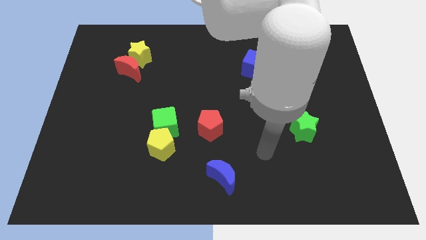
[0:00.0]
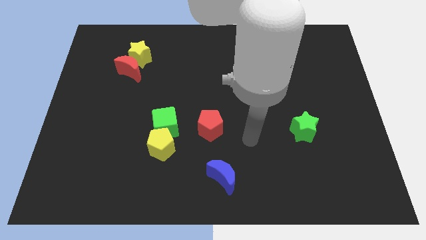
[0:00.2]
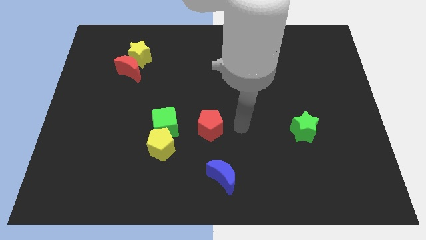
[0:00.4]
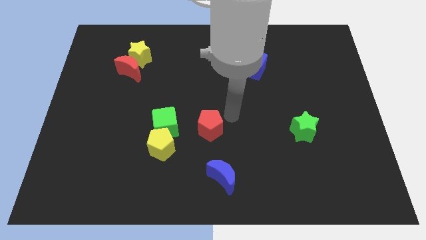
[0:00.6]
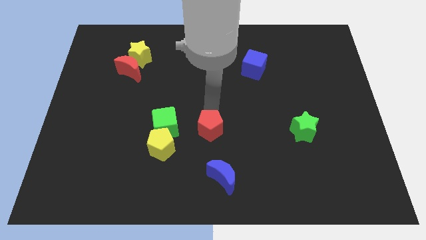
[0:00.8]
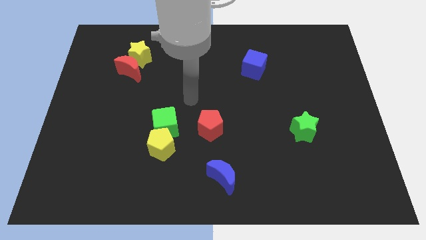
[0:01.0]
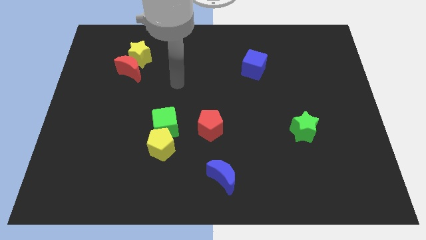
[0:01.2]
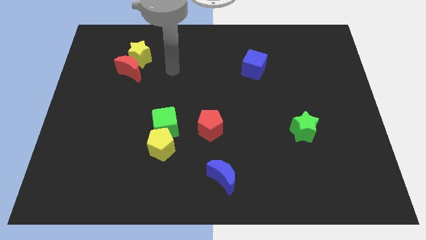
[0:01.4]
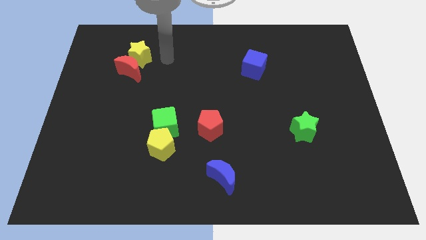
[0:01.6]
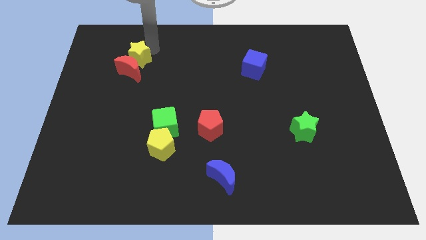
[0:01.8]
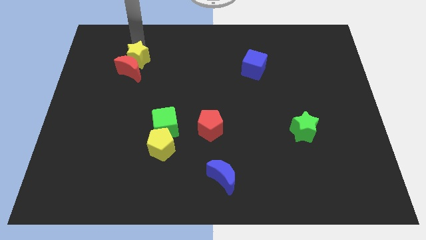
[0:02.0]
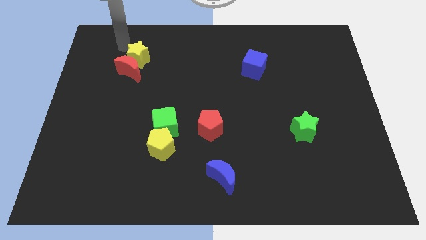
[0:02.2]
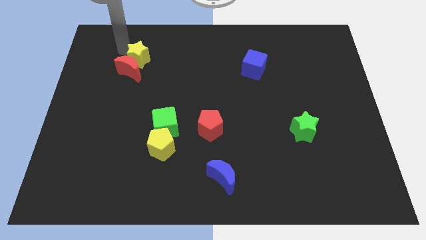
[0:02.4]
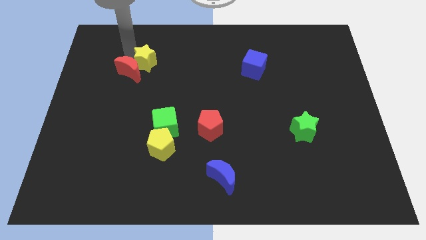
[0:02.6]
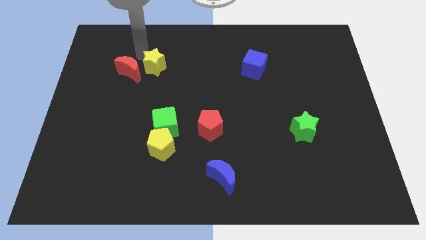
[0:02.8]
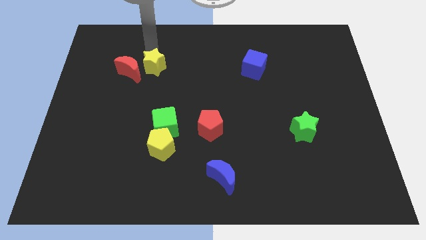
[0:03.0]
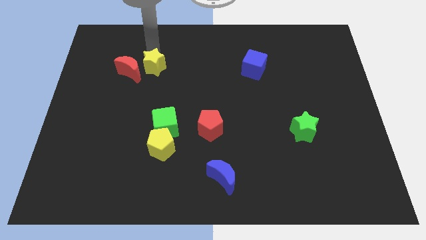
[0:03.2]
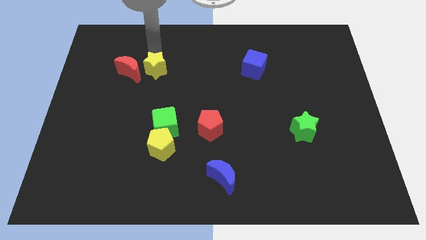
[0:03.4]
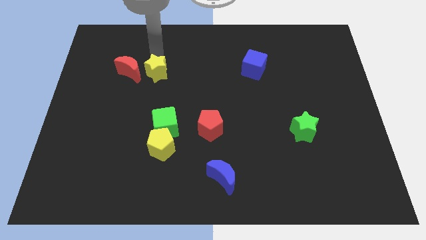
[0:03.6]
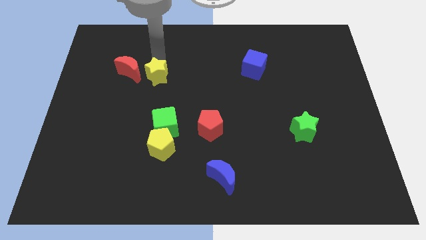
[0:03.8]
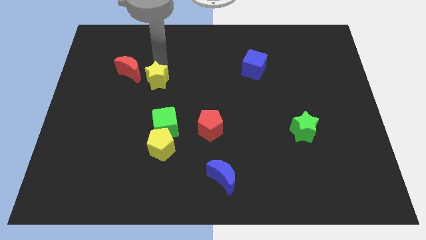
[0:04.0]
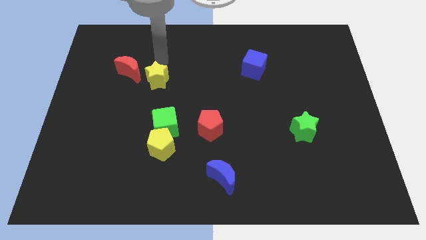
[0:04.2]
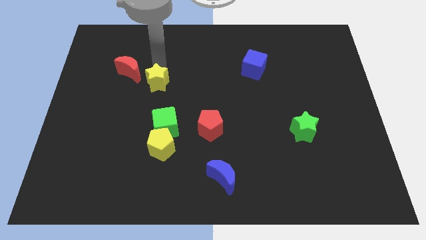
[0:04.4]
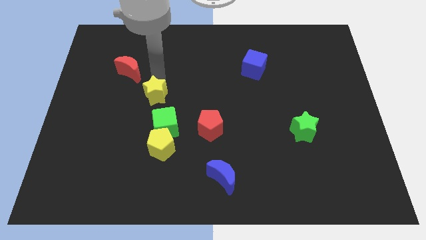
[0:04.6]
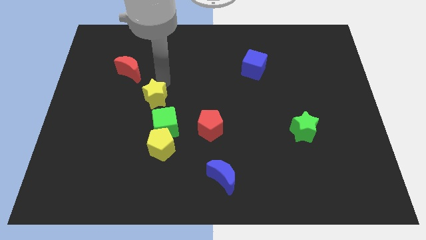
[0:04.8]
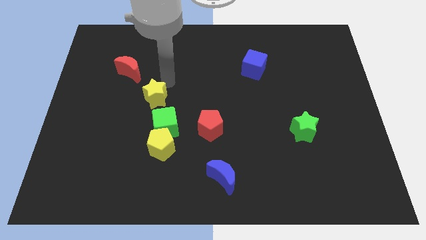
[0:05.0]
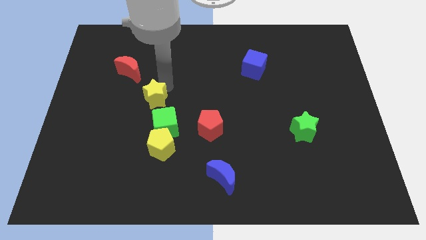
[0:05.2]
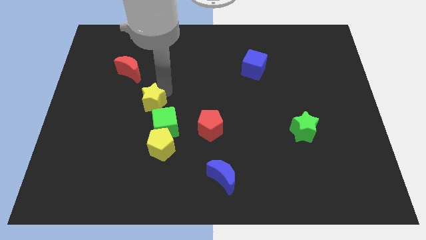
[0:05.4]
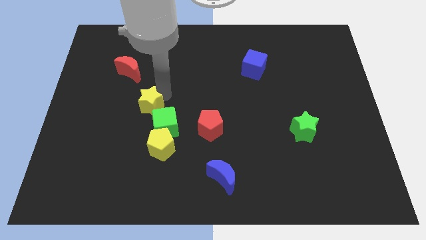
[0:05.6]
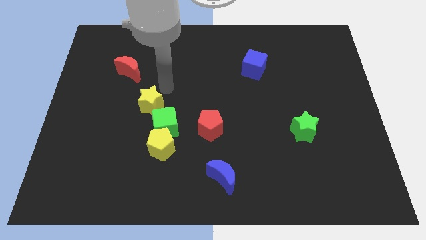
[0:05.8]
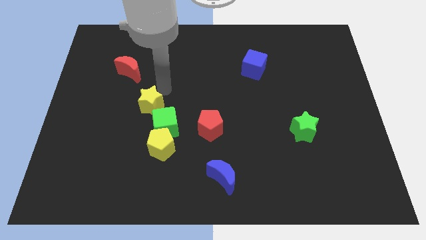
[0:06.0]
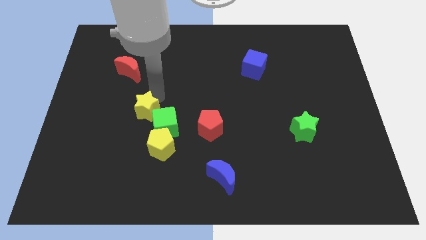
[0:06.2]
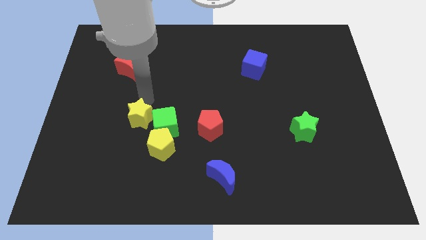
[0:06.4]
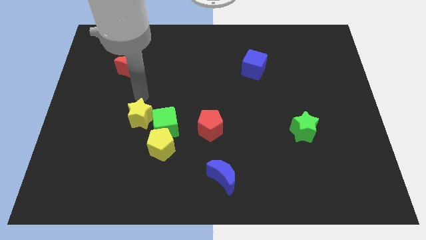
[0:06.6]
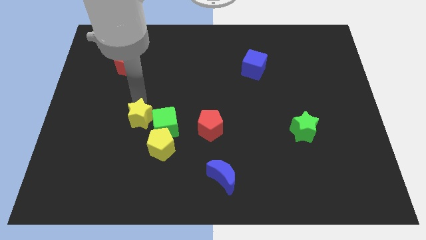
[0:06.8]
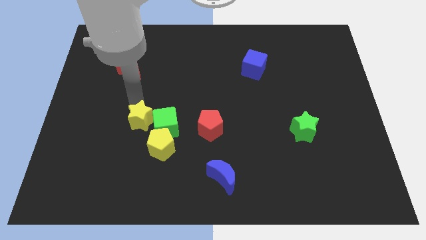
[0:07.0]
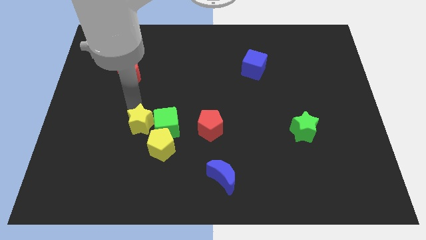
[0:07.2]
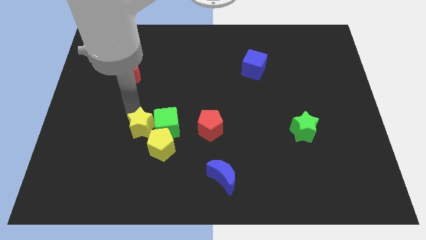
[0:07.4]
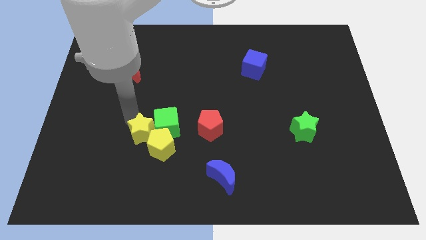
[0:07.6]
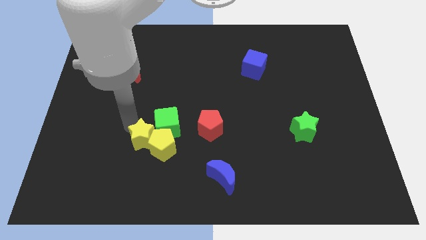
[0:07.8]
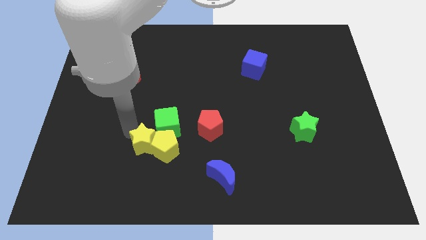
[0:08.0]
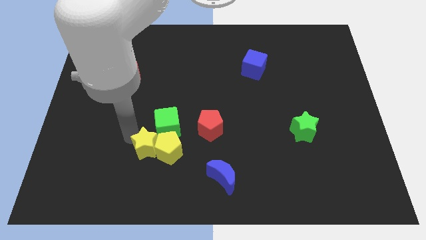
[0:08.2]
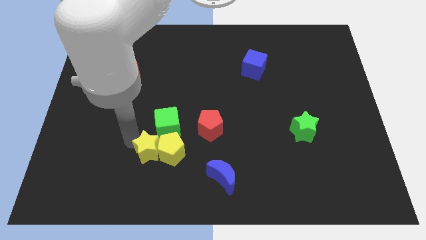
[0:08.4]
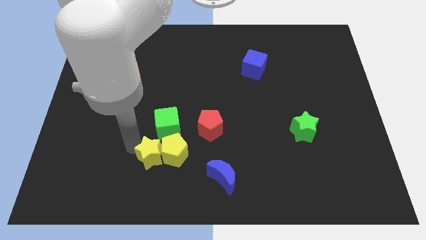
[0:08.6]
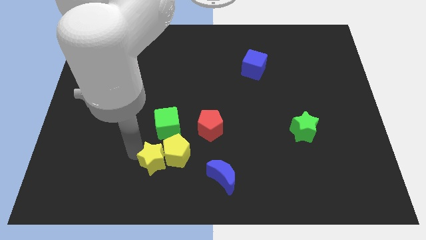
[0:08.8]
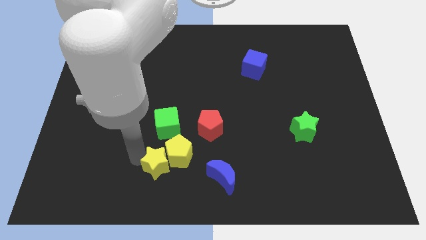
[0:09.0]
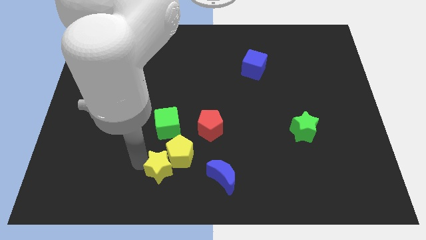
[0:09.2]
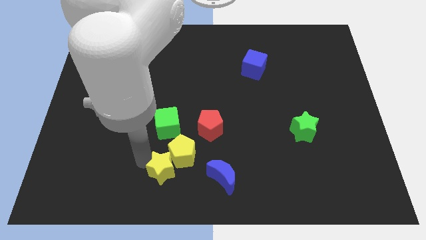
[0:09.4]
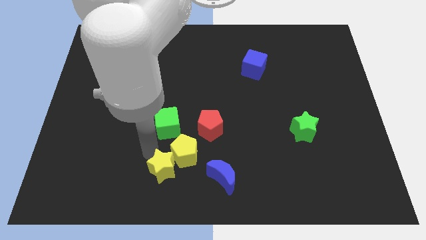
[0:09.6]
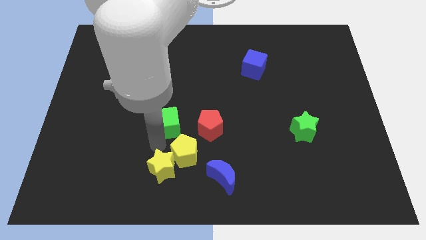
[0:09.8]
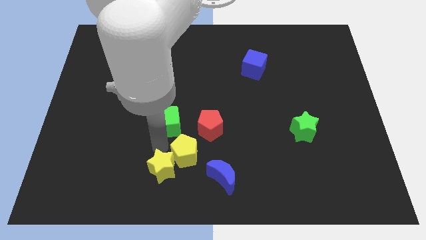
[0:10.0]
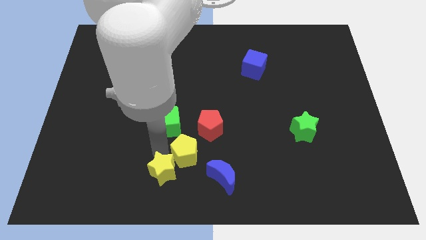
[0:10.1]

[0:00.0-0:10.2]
slide the yellow star to the bottom side
